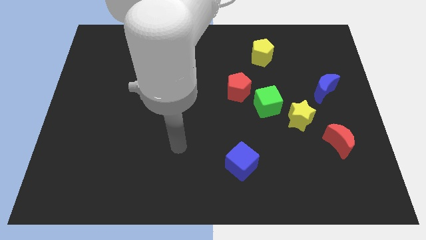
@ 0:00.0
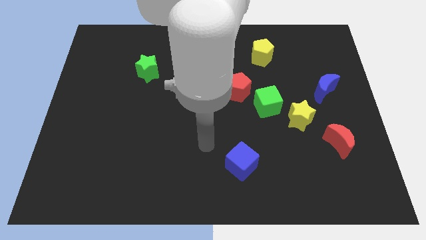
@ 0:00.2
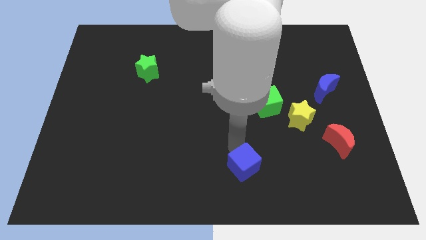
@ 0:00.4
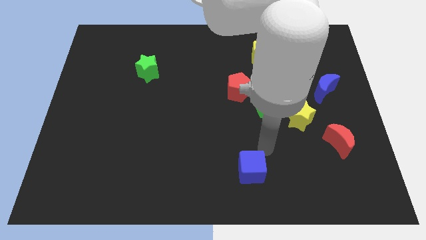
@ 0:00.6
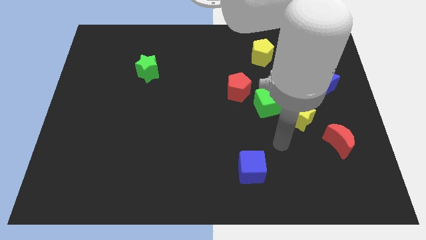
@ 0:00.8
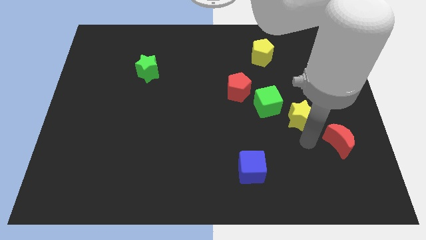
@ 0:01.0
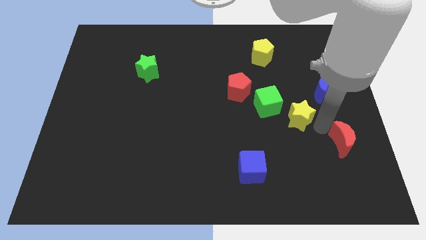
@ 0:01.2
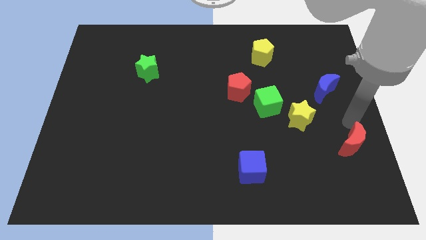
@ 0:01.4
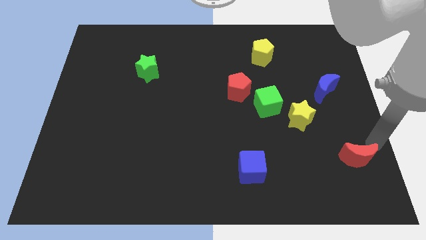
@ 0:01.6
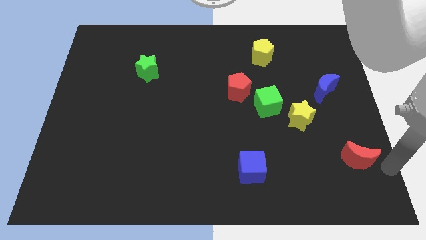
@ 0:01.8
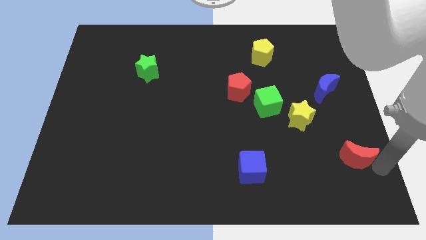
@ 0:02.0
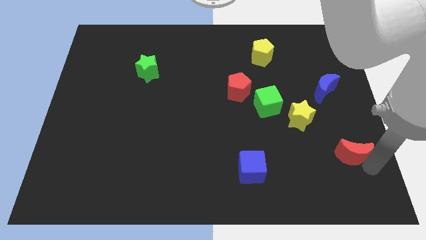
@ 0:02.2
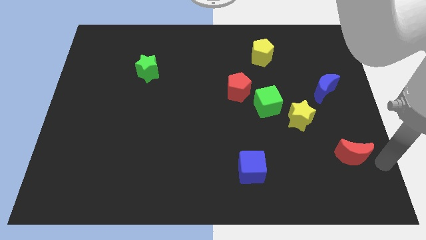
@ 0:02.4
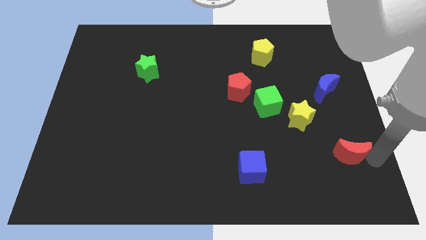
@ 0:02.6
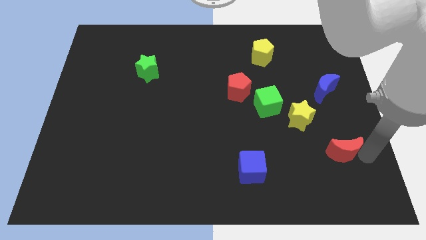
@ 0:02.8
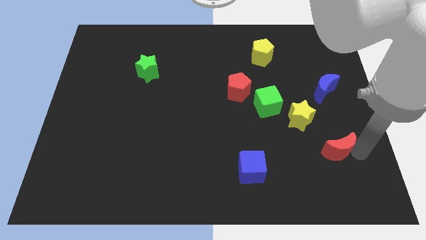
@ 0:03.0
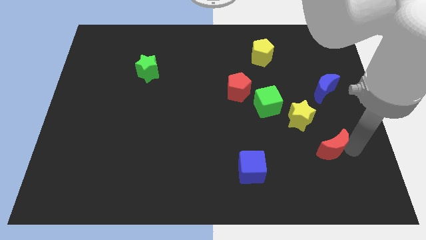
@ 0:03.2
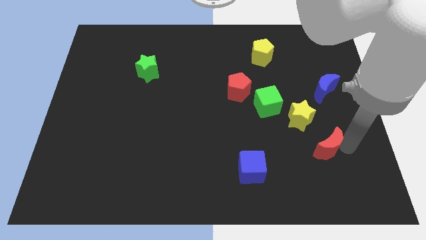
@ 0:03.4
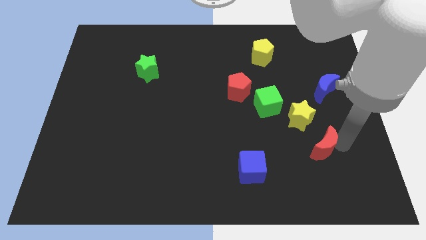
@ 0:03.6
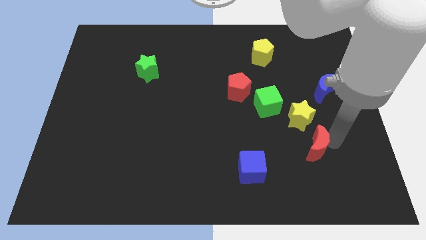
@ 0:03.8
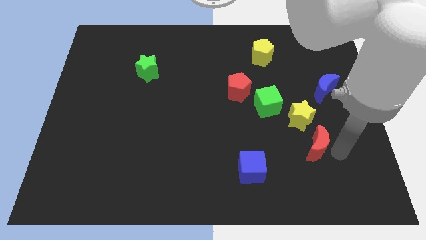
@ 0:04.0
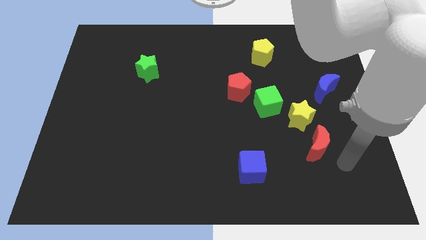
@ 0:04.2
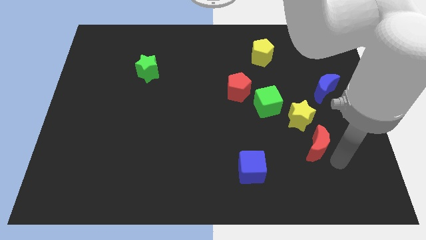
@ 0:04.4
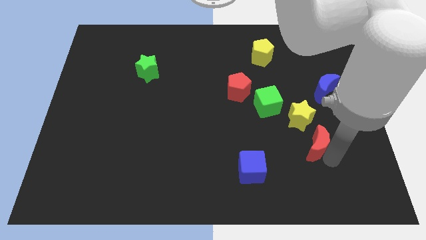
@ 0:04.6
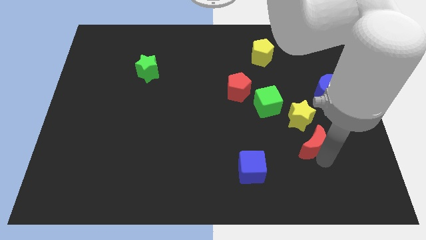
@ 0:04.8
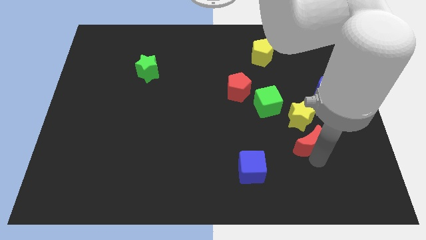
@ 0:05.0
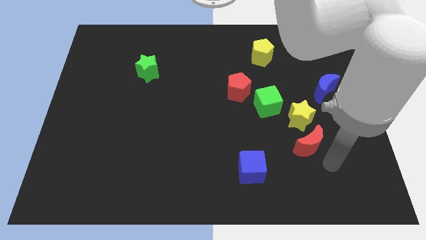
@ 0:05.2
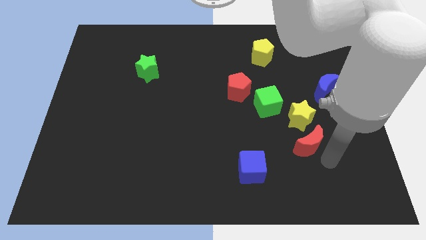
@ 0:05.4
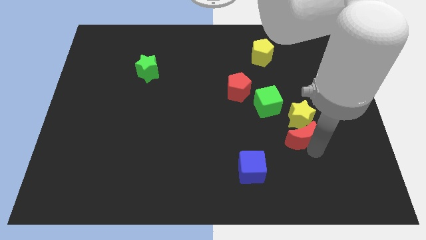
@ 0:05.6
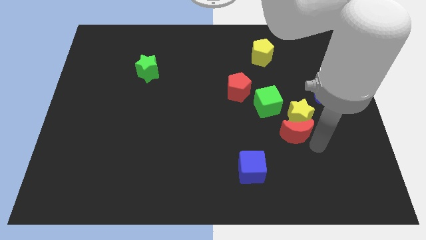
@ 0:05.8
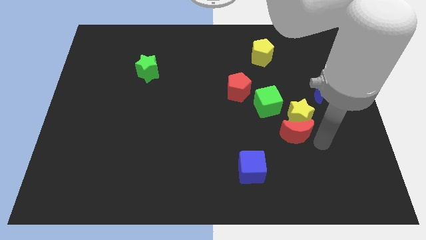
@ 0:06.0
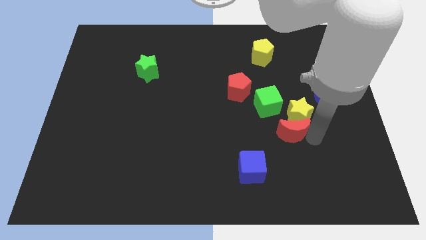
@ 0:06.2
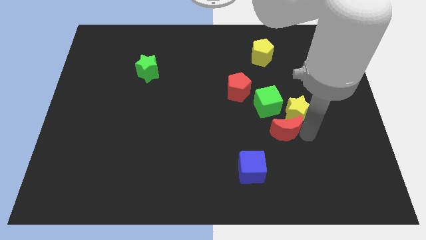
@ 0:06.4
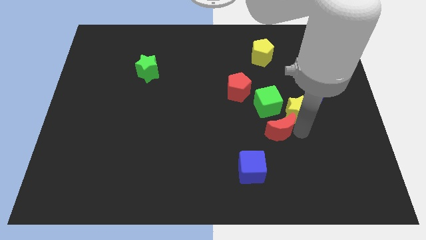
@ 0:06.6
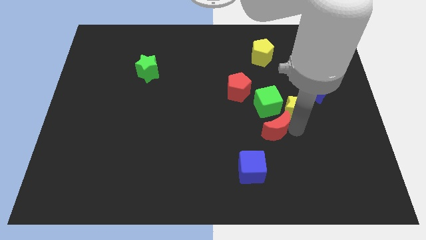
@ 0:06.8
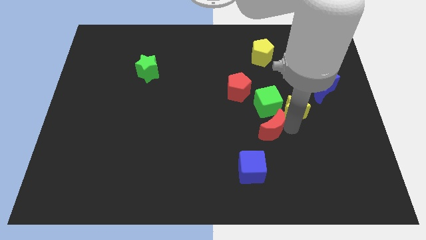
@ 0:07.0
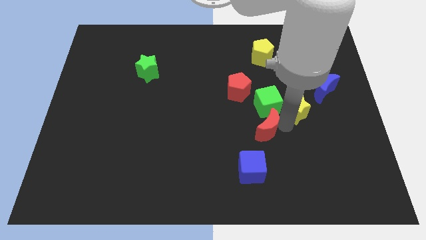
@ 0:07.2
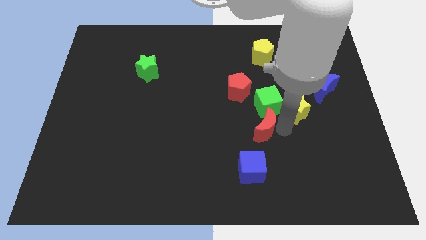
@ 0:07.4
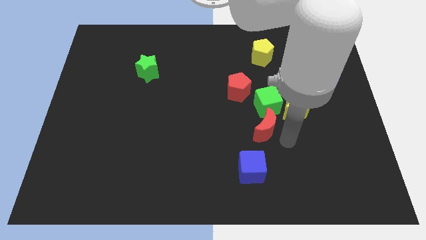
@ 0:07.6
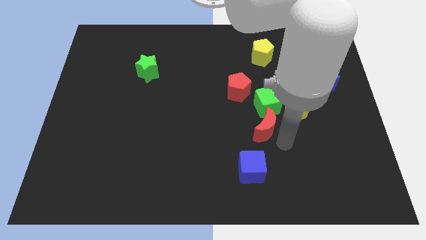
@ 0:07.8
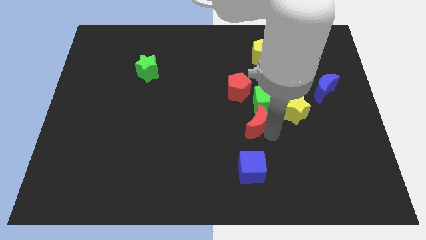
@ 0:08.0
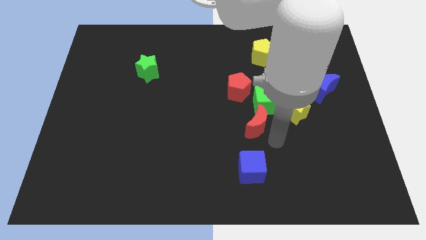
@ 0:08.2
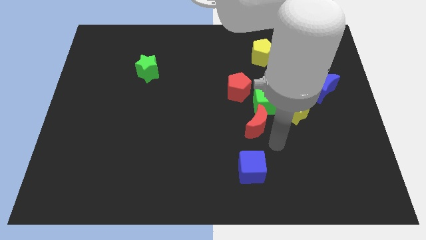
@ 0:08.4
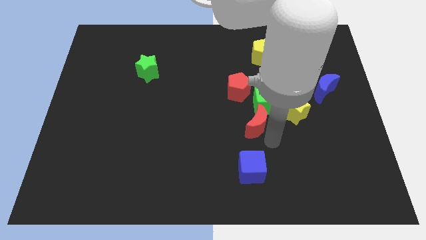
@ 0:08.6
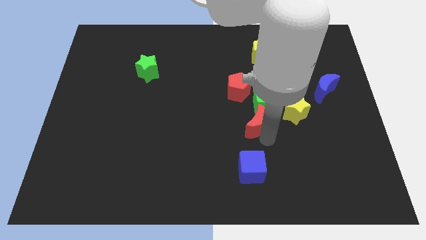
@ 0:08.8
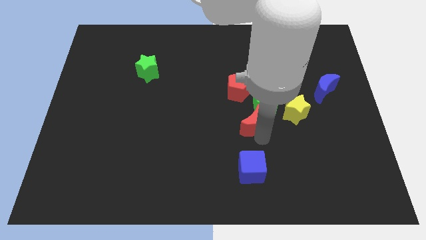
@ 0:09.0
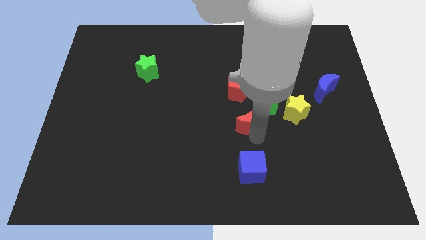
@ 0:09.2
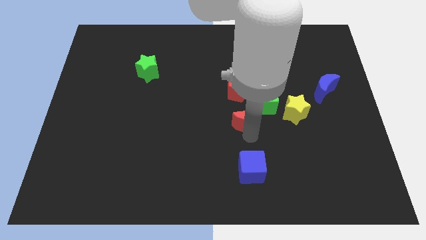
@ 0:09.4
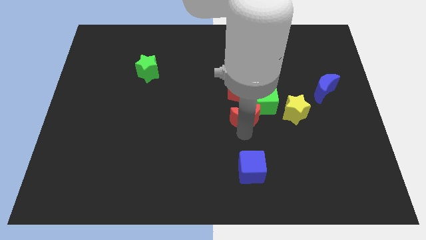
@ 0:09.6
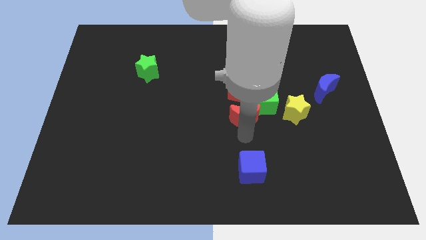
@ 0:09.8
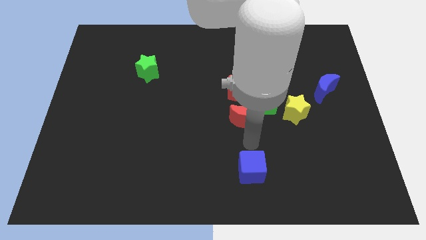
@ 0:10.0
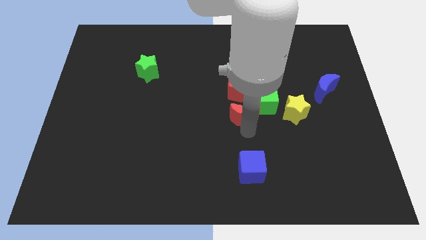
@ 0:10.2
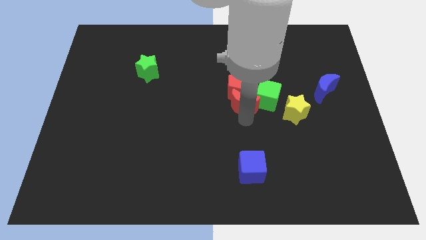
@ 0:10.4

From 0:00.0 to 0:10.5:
move the red moon towards the red pentagon

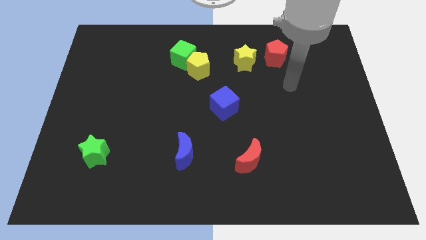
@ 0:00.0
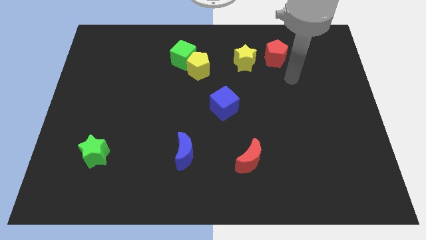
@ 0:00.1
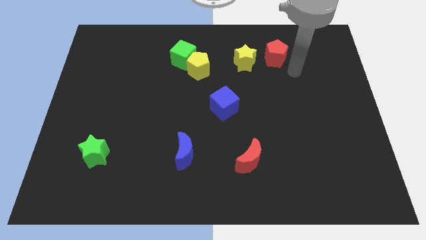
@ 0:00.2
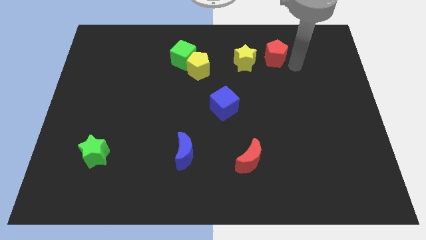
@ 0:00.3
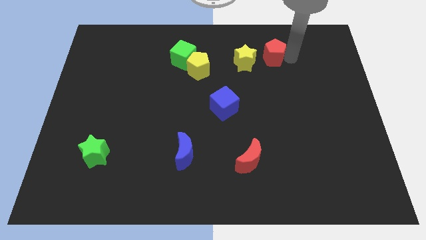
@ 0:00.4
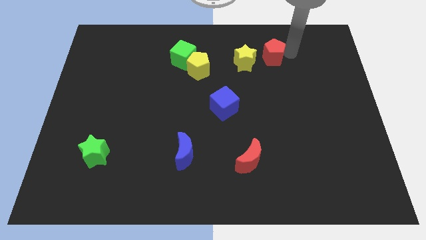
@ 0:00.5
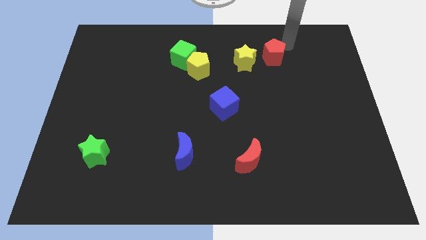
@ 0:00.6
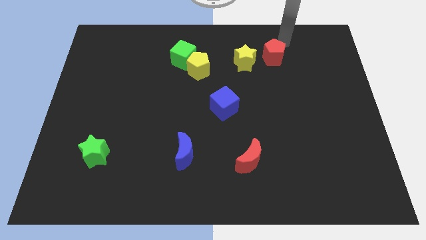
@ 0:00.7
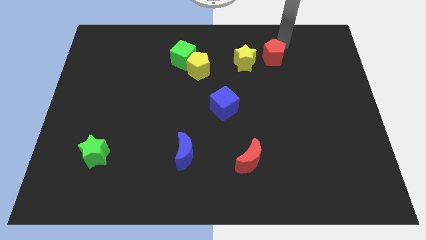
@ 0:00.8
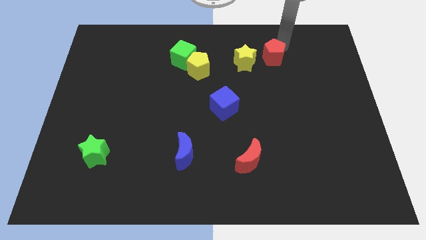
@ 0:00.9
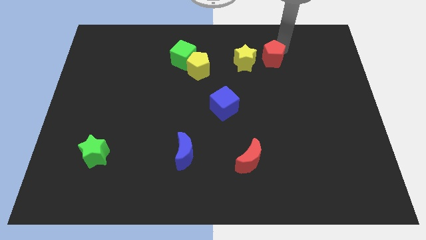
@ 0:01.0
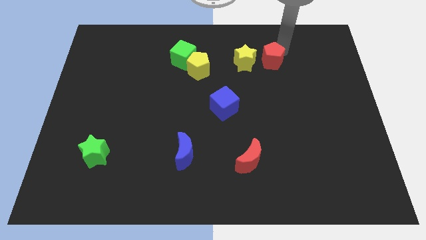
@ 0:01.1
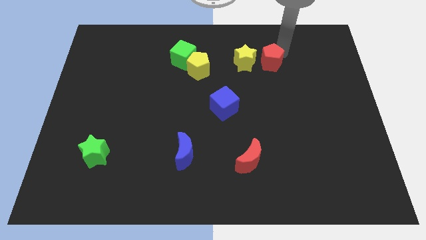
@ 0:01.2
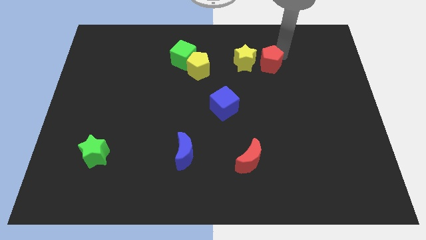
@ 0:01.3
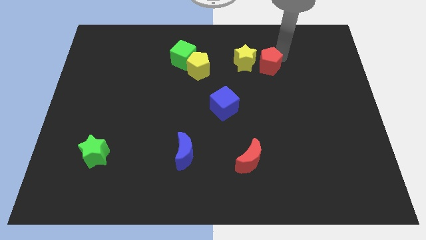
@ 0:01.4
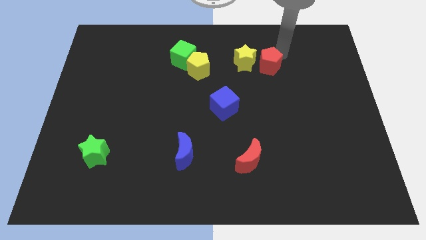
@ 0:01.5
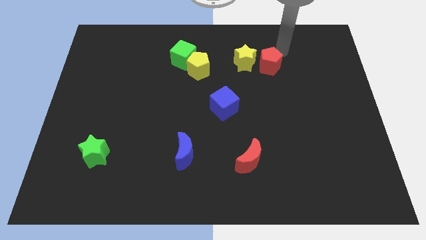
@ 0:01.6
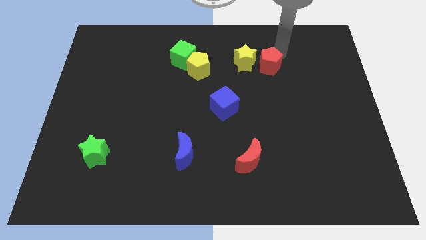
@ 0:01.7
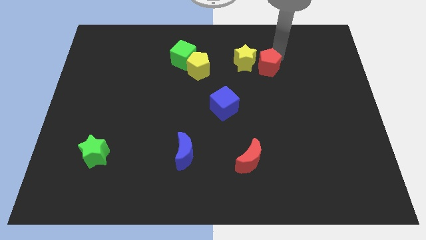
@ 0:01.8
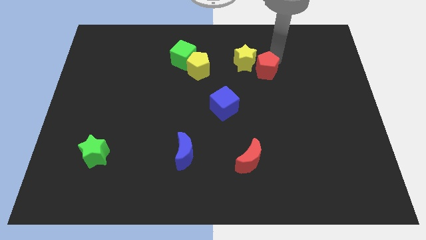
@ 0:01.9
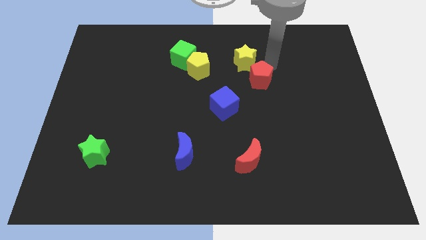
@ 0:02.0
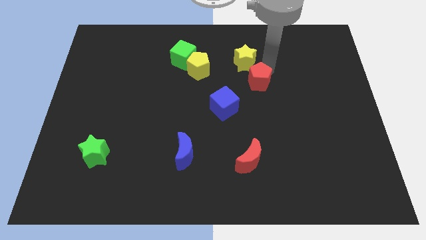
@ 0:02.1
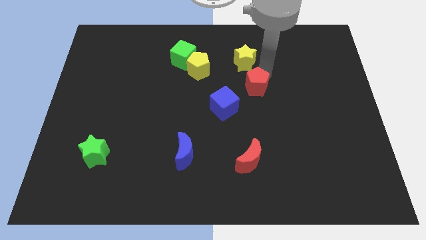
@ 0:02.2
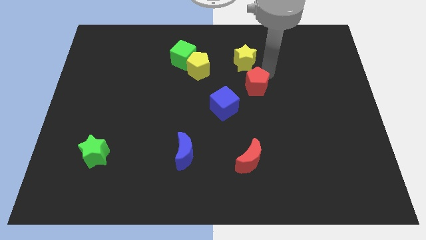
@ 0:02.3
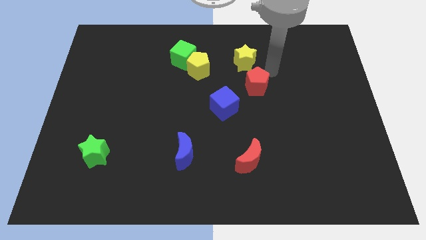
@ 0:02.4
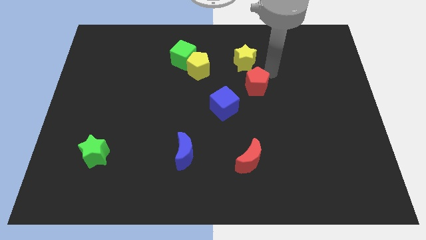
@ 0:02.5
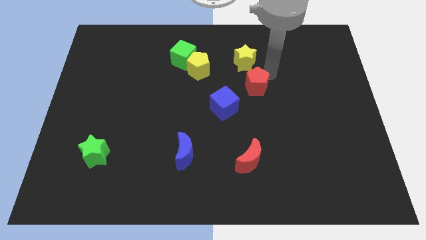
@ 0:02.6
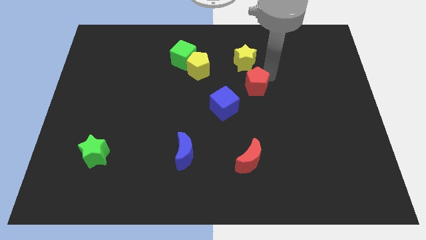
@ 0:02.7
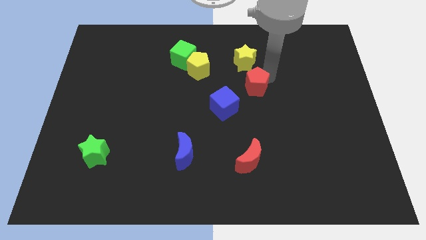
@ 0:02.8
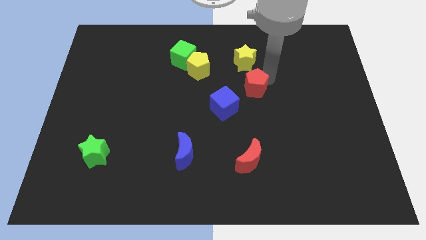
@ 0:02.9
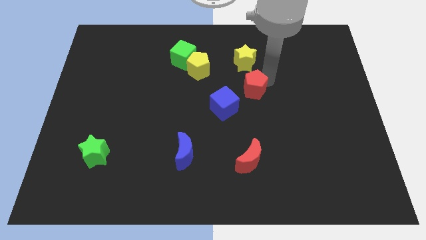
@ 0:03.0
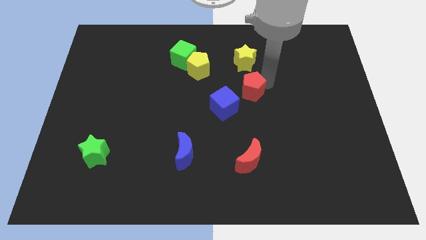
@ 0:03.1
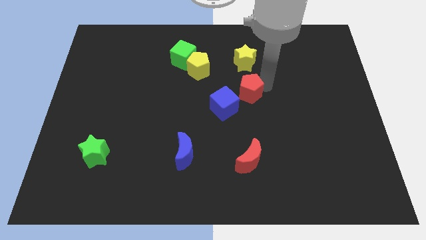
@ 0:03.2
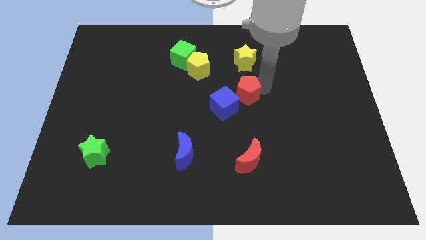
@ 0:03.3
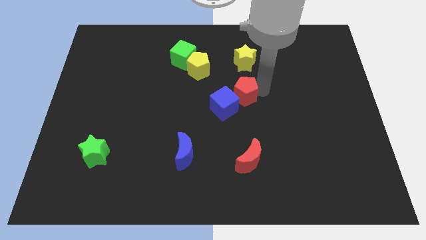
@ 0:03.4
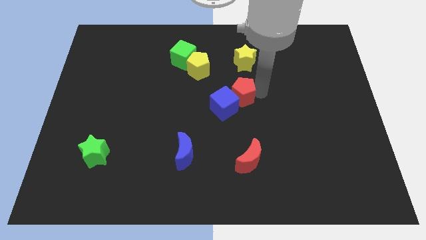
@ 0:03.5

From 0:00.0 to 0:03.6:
slide the red pentagon towards the blue cube
